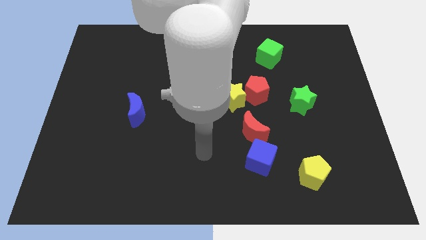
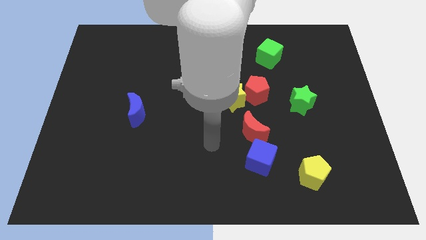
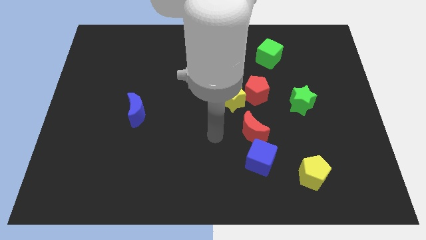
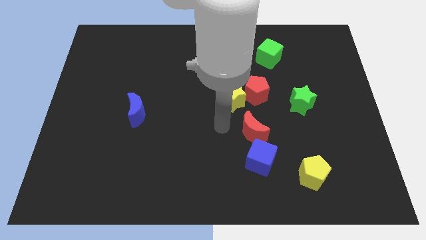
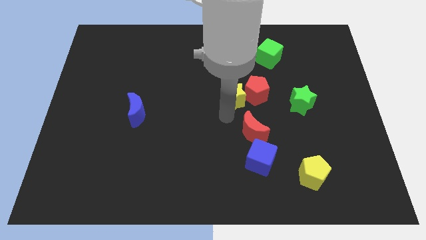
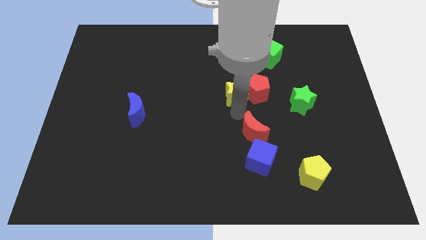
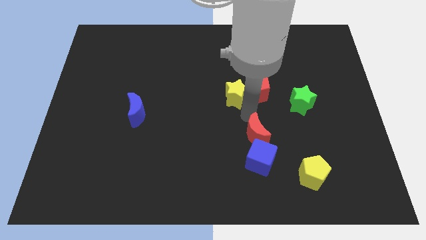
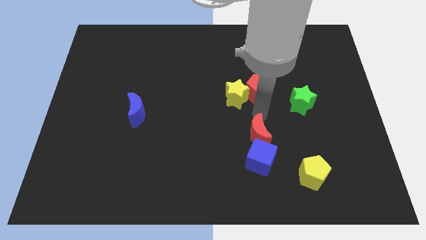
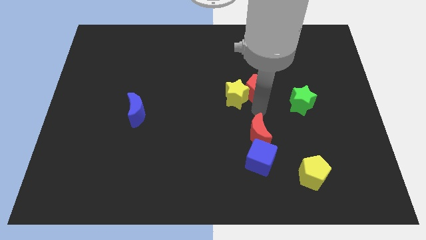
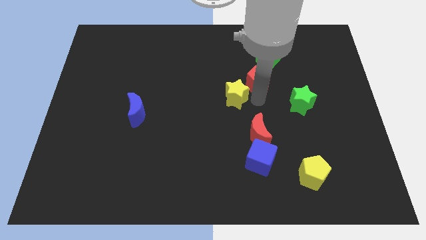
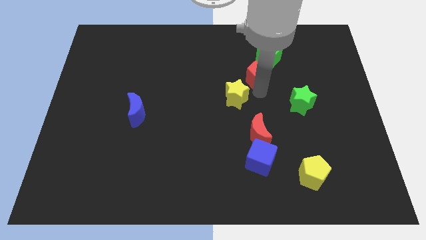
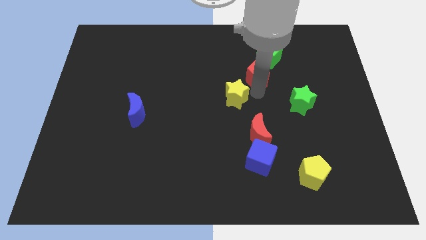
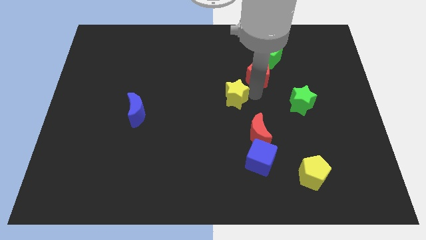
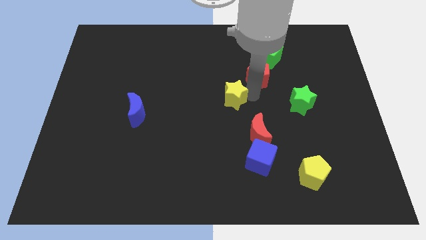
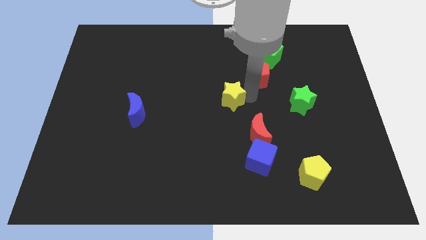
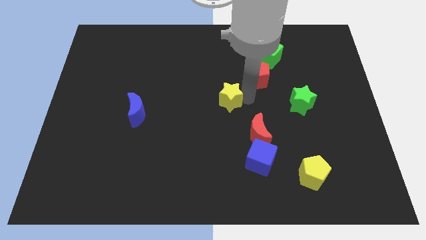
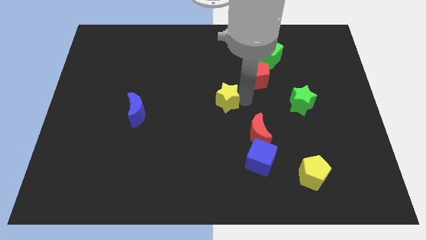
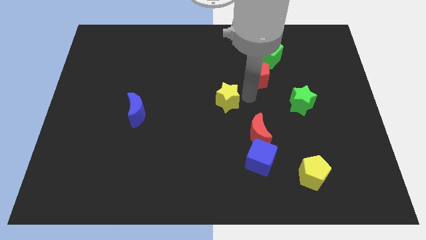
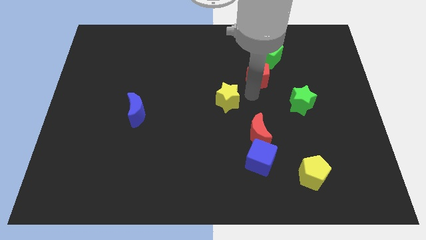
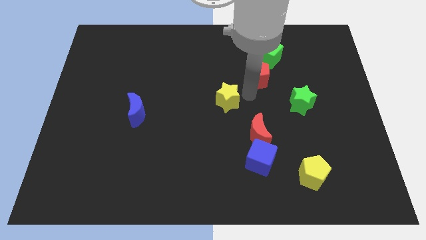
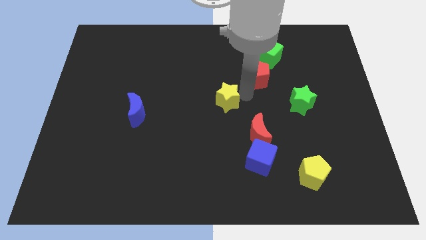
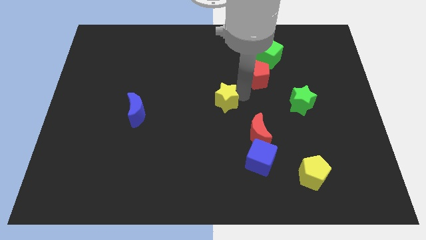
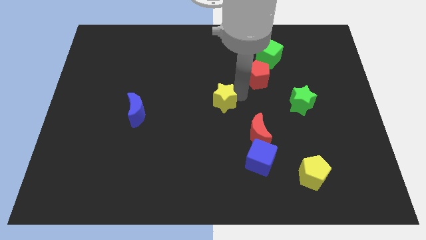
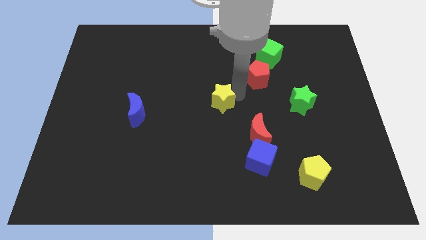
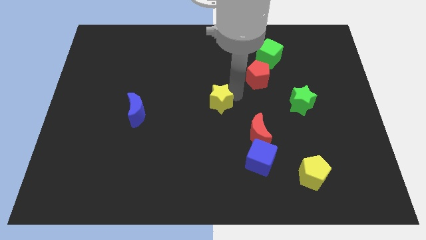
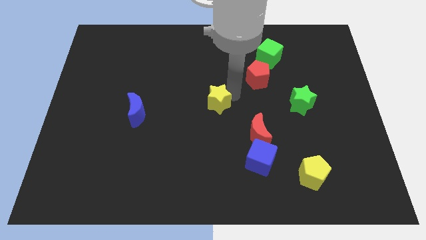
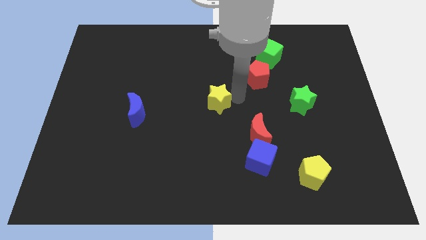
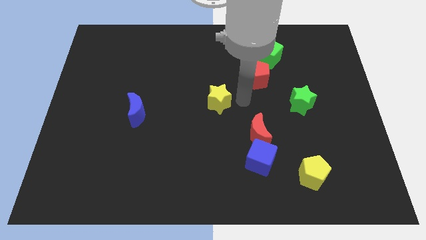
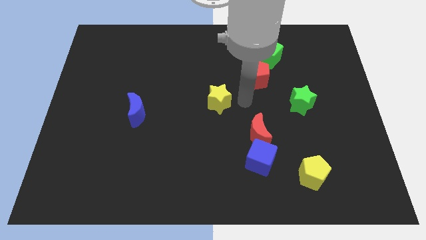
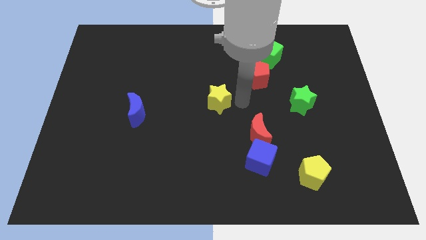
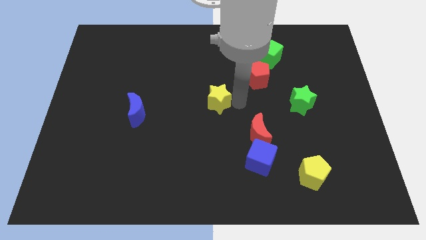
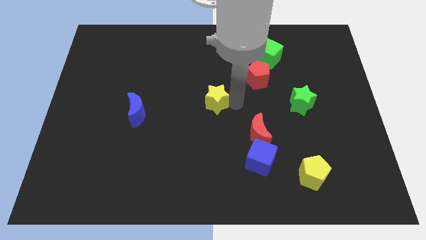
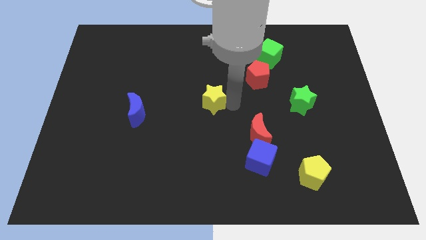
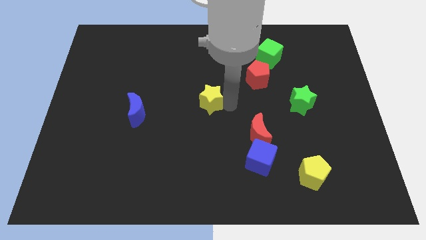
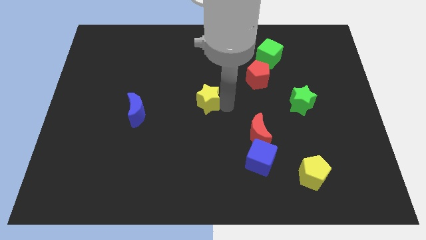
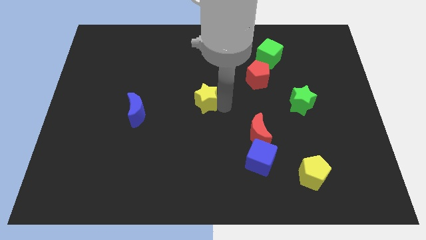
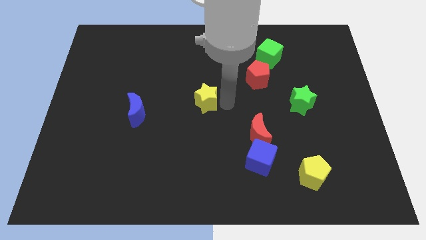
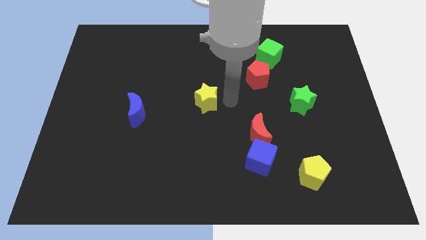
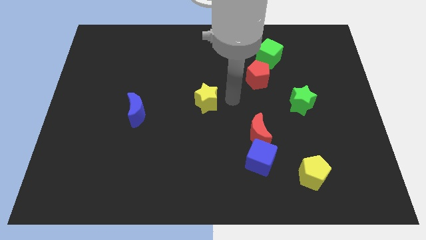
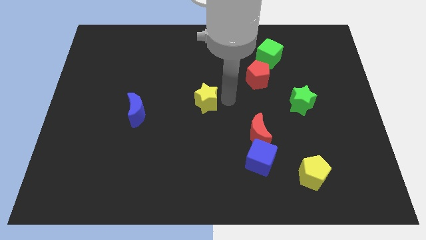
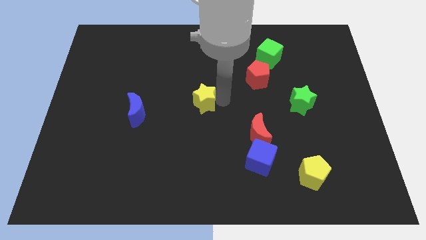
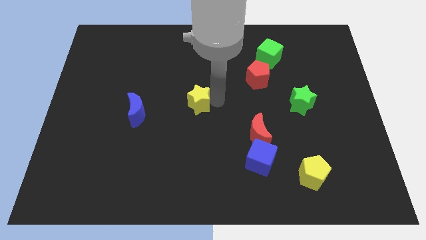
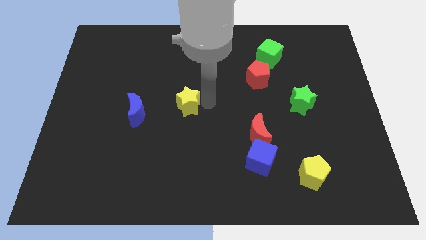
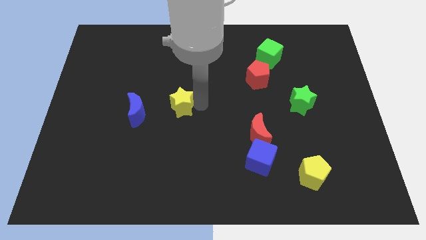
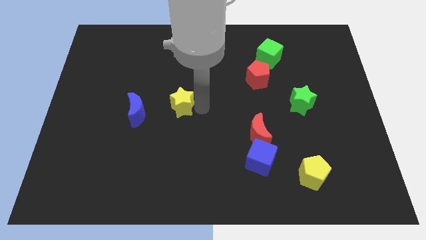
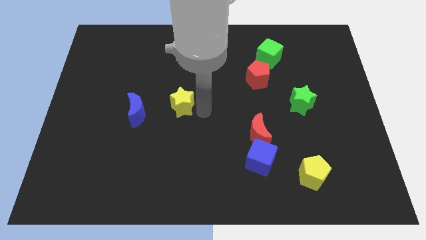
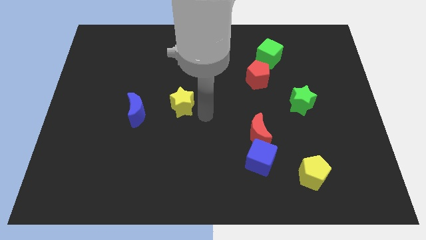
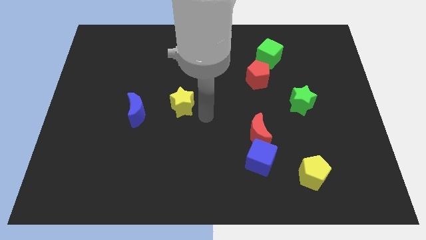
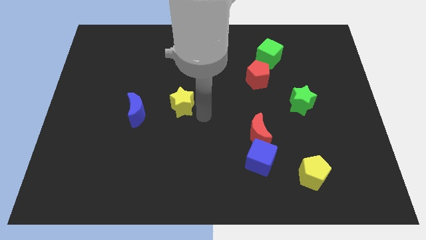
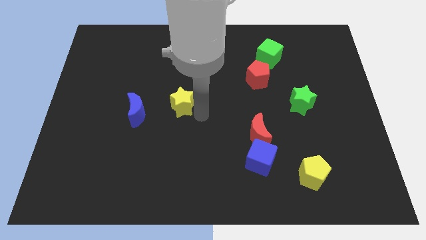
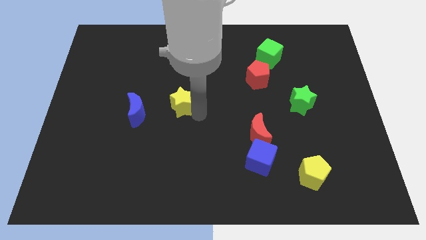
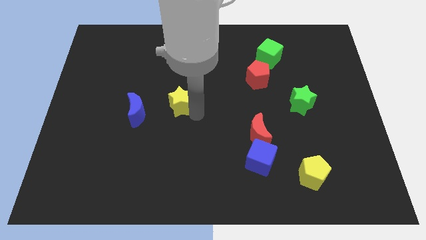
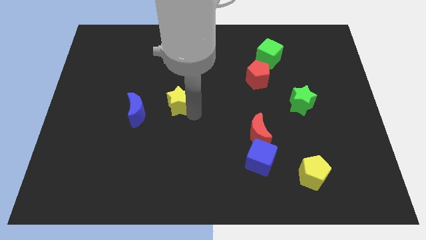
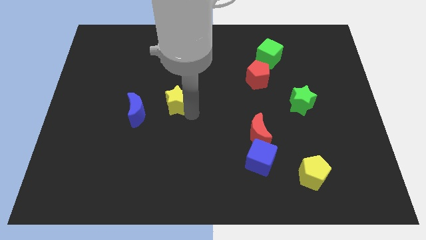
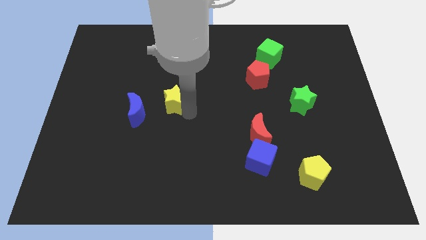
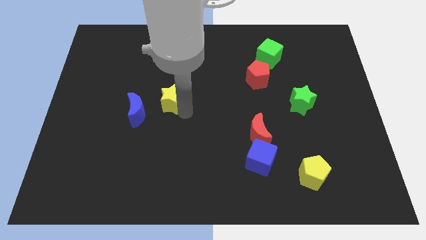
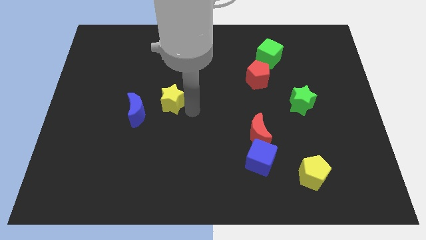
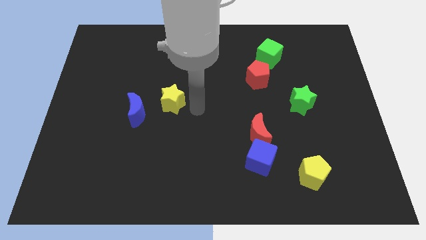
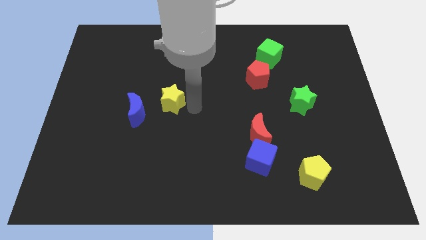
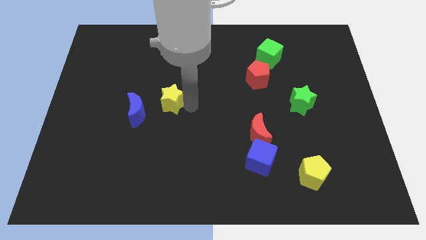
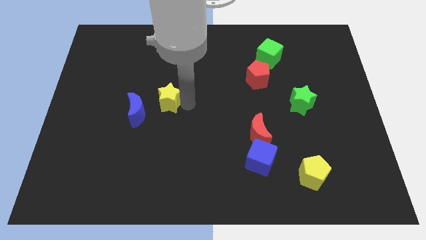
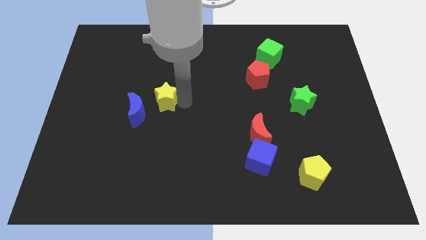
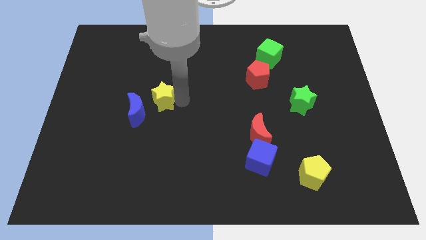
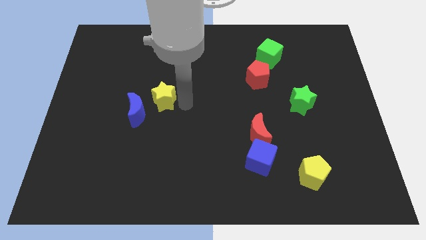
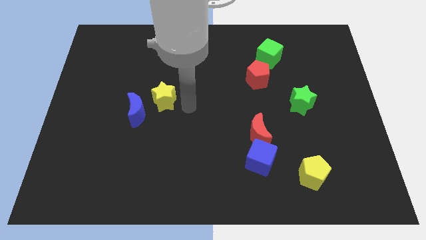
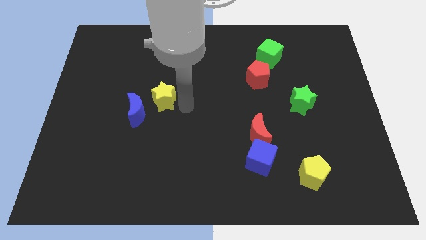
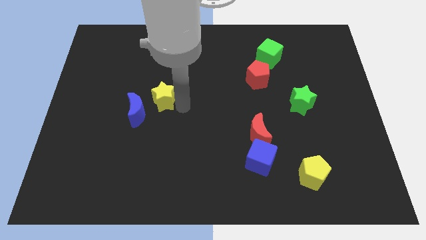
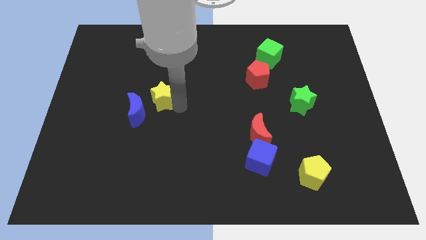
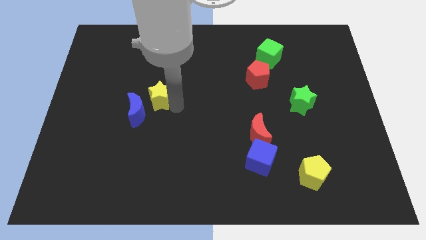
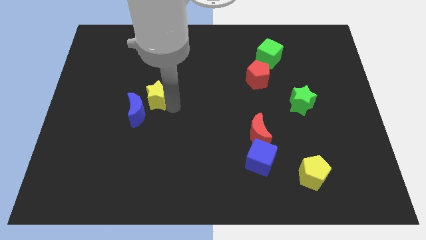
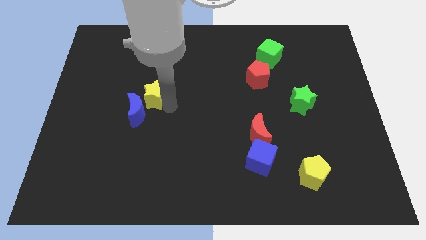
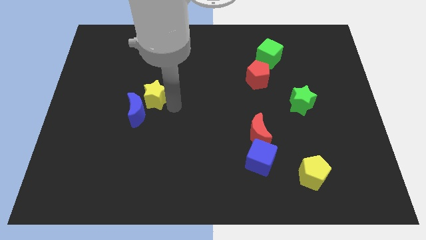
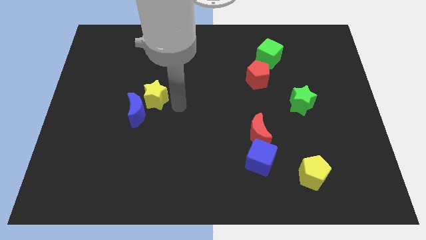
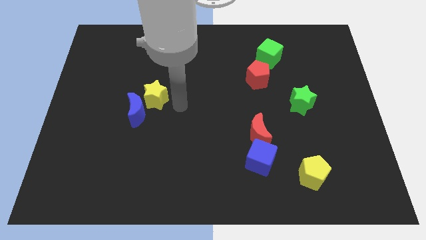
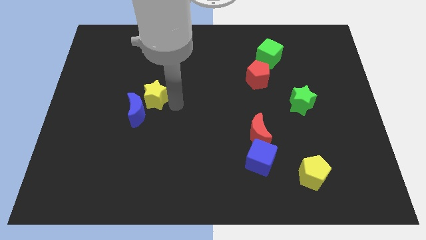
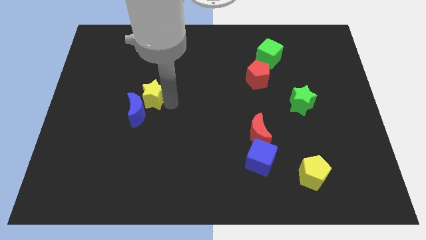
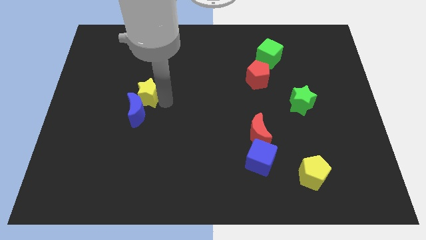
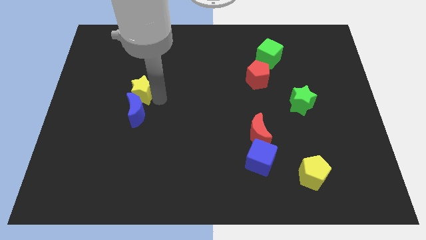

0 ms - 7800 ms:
move the yellow star diagonally up and to the left of the blue moon
